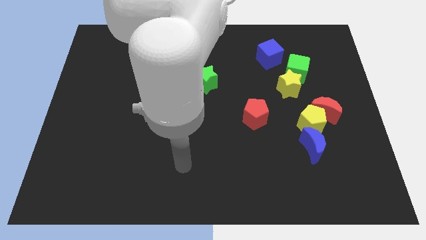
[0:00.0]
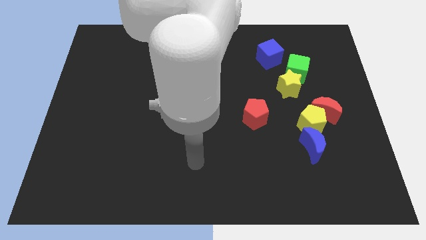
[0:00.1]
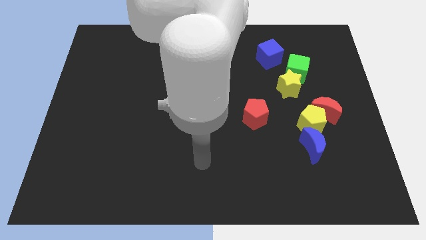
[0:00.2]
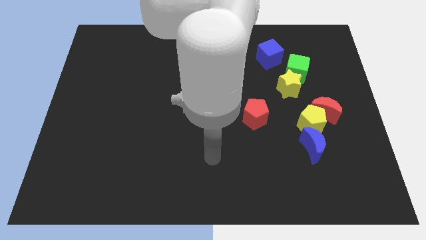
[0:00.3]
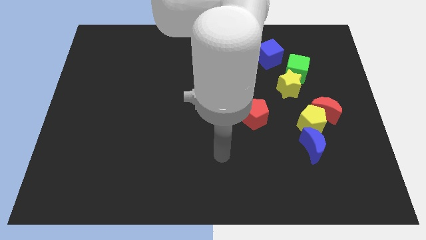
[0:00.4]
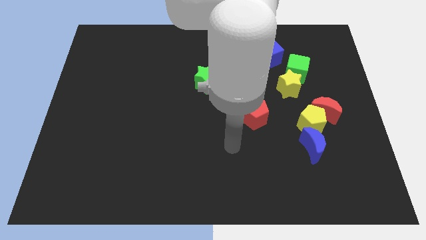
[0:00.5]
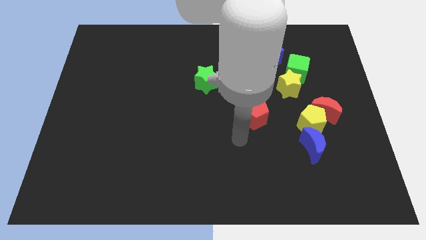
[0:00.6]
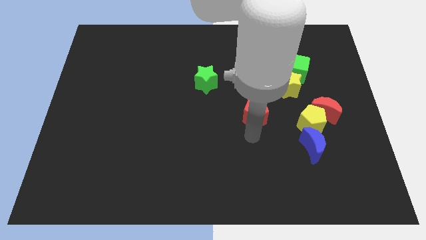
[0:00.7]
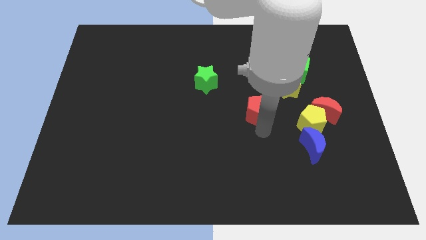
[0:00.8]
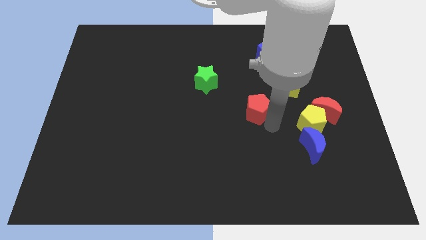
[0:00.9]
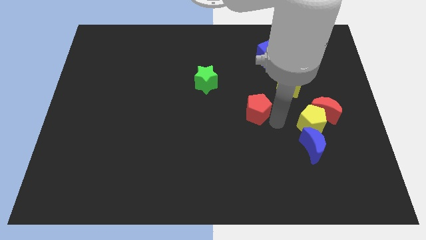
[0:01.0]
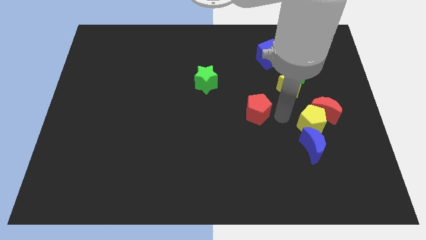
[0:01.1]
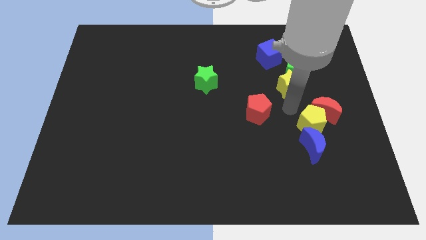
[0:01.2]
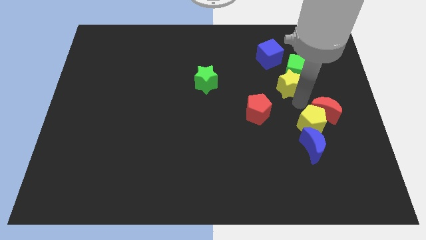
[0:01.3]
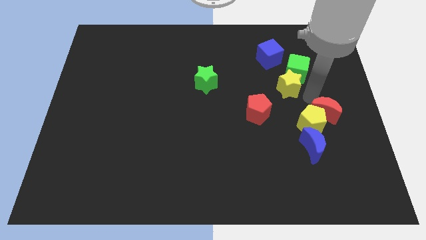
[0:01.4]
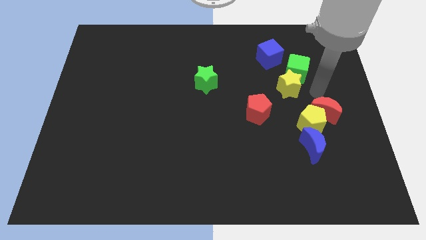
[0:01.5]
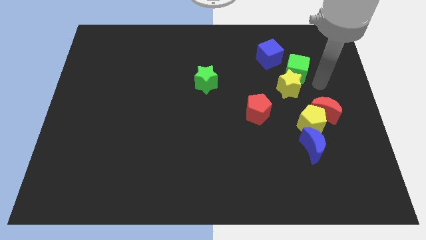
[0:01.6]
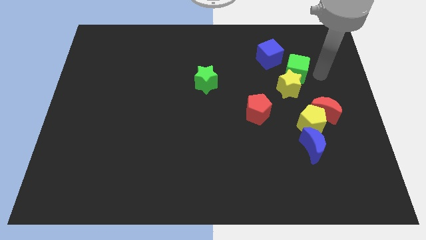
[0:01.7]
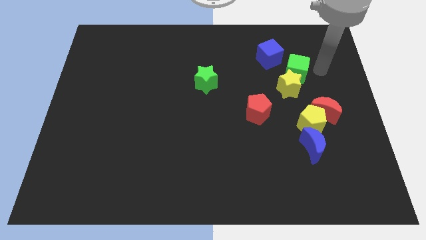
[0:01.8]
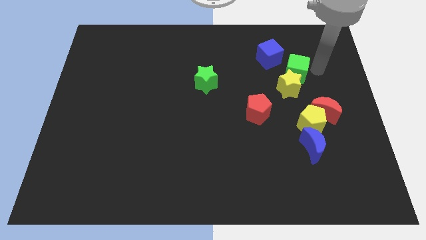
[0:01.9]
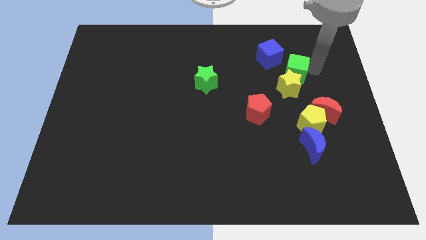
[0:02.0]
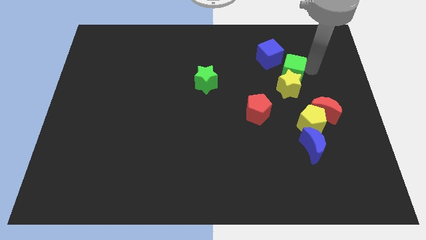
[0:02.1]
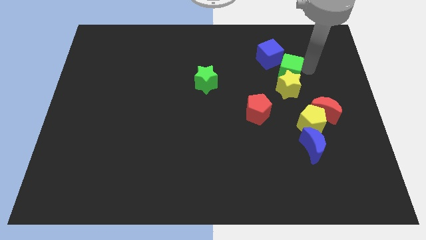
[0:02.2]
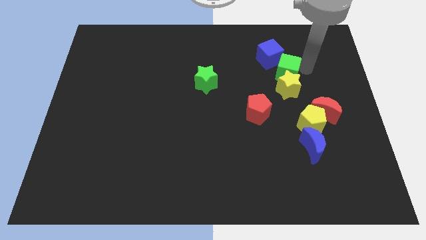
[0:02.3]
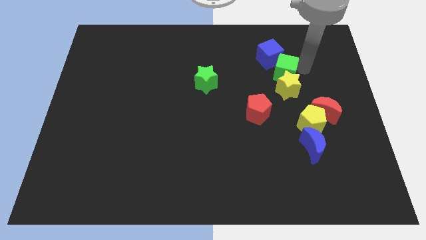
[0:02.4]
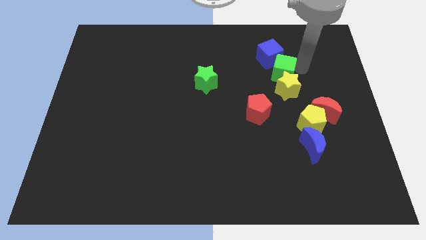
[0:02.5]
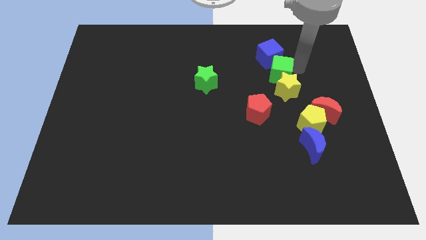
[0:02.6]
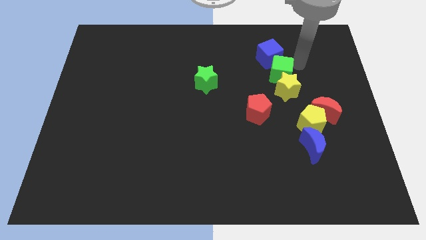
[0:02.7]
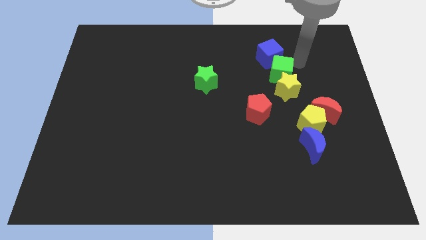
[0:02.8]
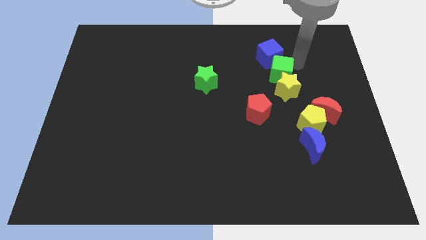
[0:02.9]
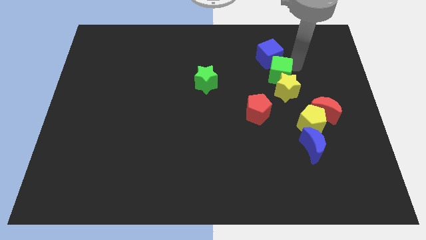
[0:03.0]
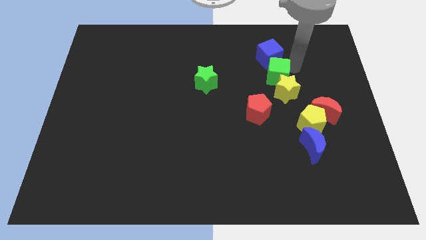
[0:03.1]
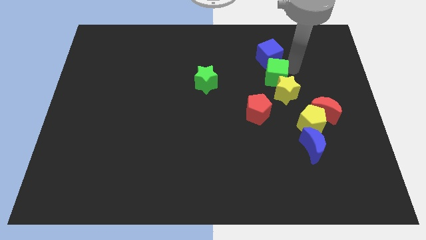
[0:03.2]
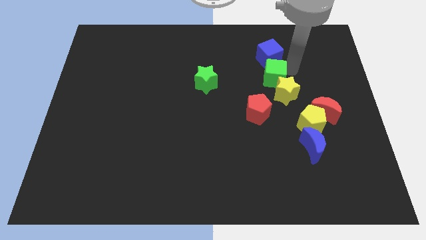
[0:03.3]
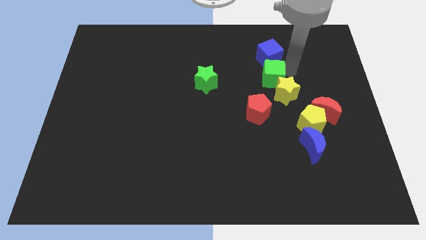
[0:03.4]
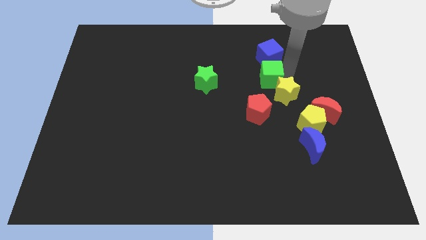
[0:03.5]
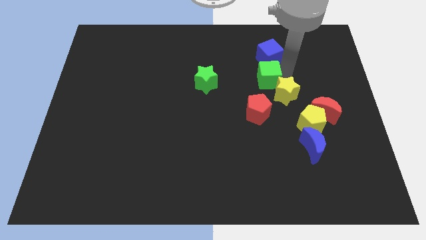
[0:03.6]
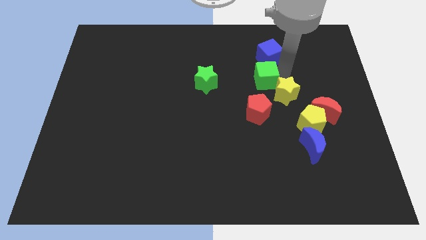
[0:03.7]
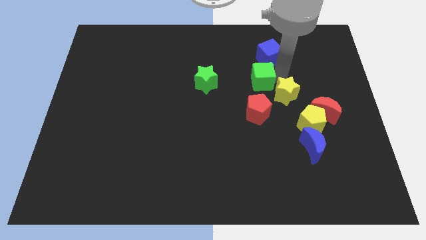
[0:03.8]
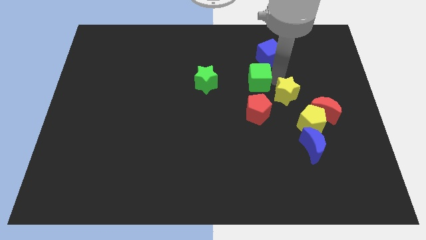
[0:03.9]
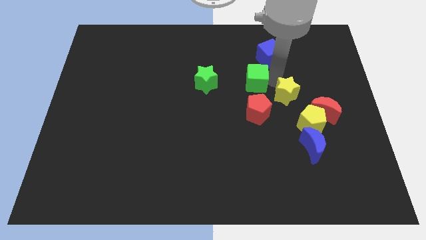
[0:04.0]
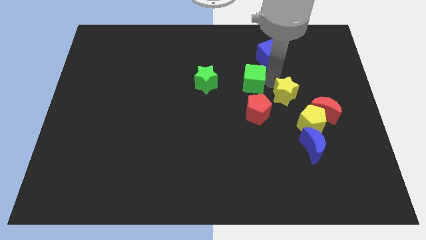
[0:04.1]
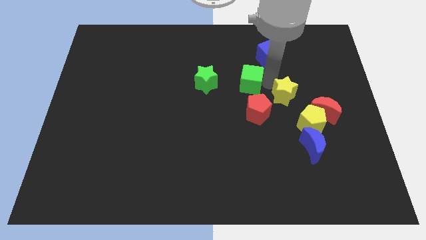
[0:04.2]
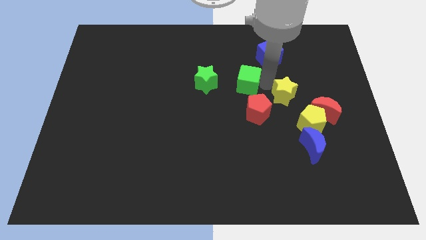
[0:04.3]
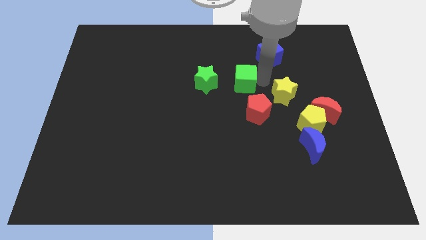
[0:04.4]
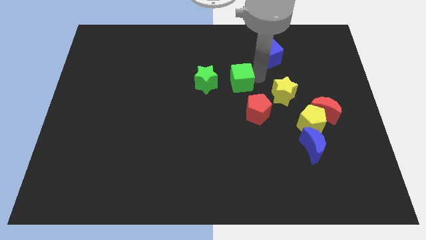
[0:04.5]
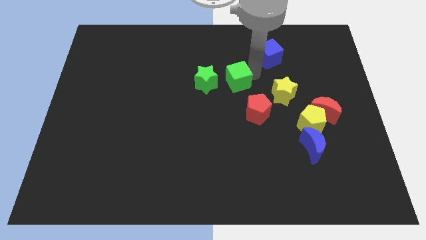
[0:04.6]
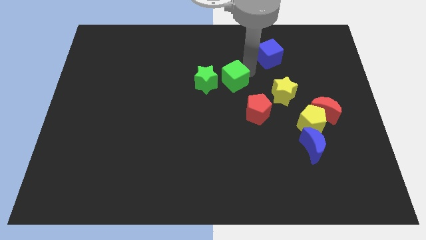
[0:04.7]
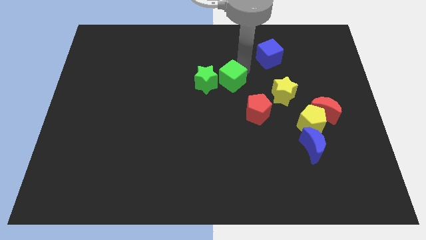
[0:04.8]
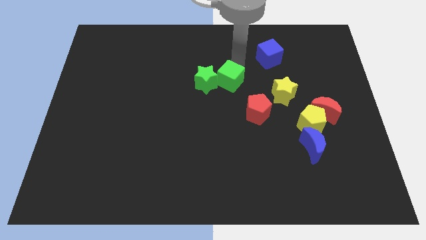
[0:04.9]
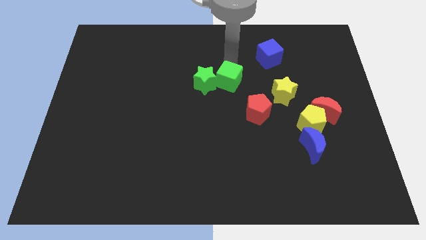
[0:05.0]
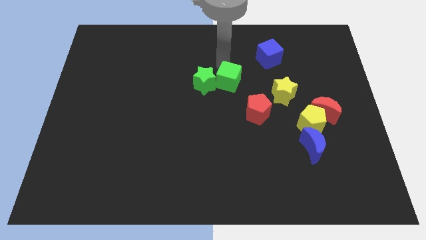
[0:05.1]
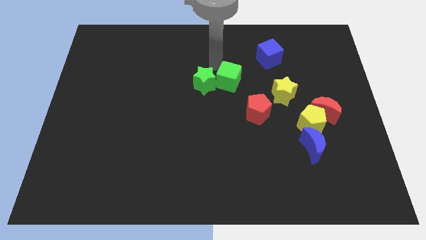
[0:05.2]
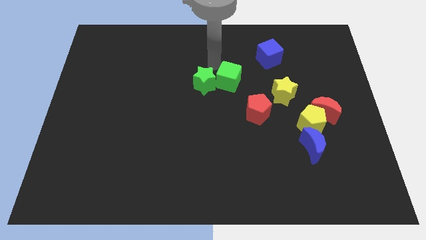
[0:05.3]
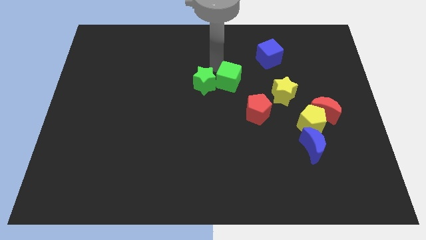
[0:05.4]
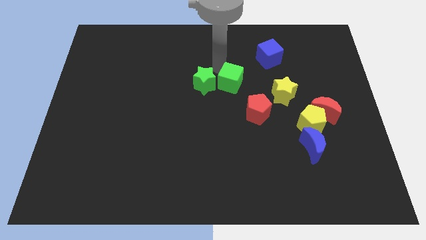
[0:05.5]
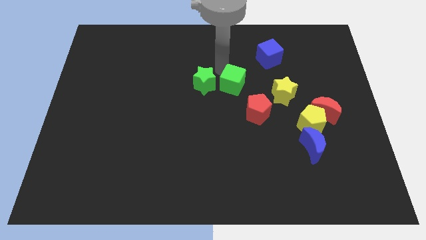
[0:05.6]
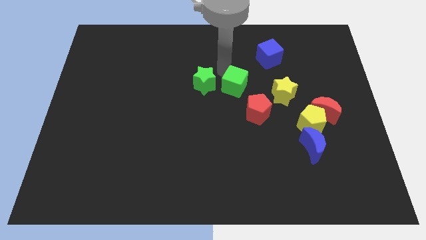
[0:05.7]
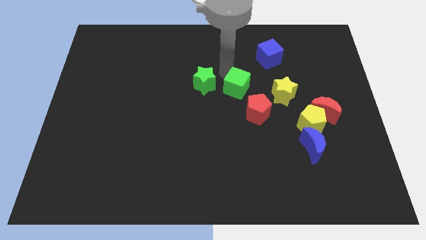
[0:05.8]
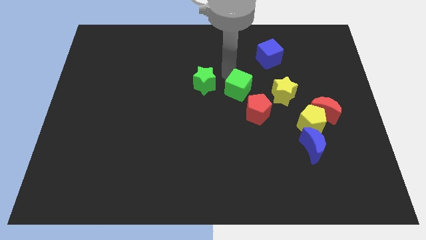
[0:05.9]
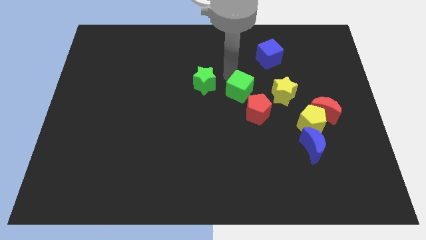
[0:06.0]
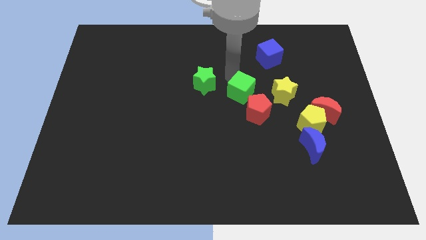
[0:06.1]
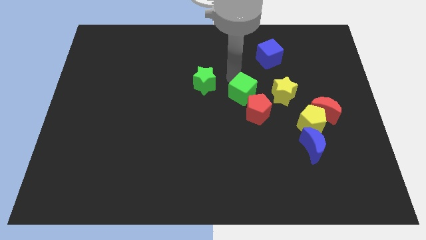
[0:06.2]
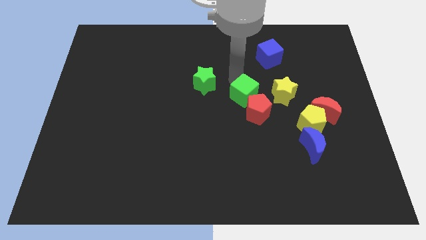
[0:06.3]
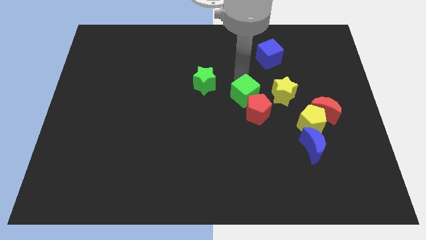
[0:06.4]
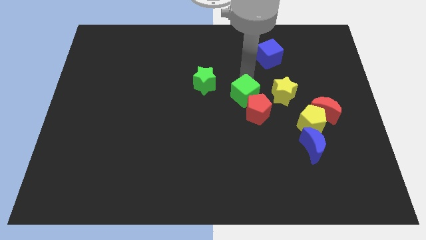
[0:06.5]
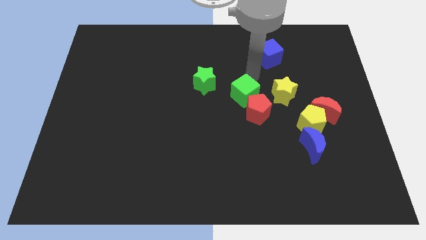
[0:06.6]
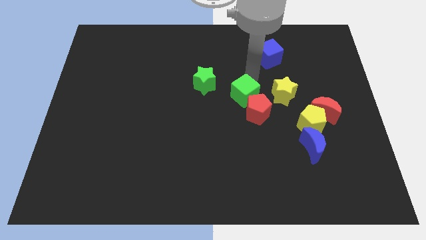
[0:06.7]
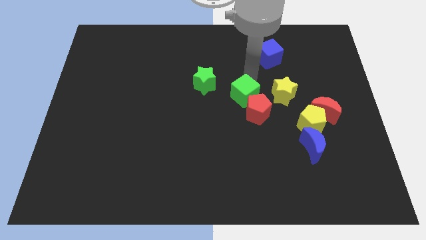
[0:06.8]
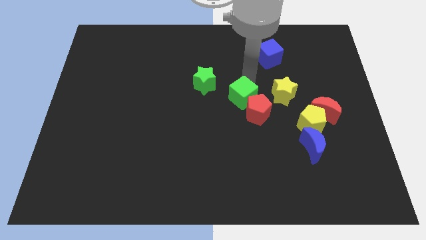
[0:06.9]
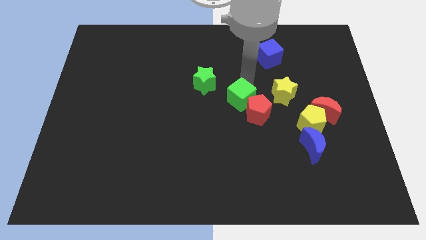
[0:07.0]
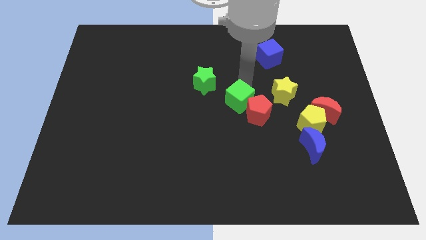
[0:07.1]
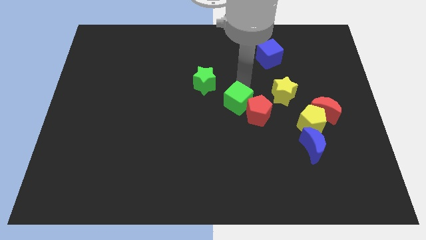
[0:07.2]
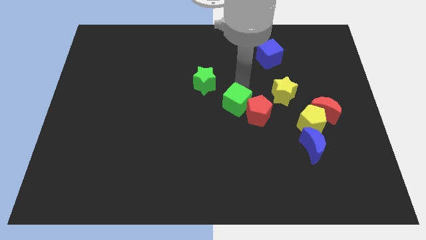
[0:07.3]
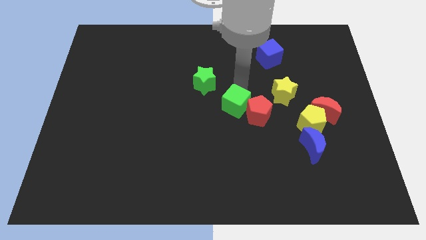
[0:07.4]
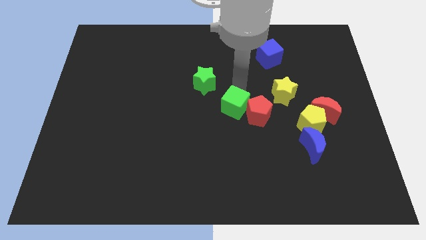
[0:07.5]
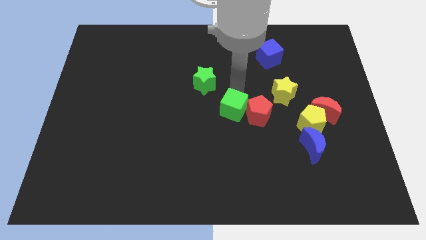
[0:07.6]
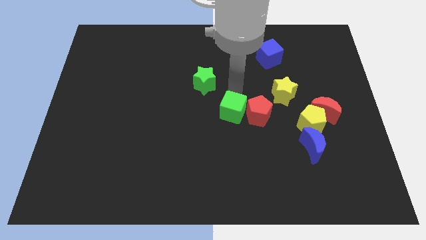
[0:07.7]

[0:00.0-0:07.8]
slide the green cube downwards and then left

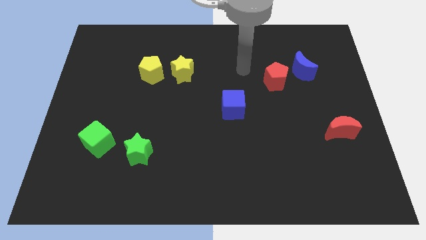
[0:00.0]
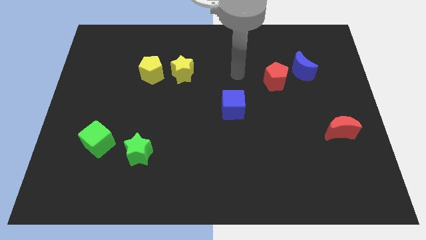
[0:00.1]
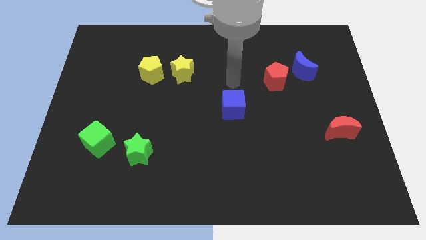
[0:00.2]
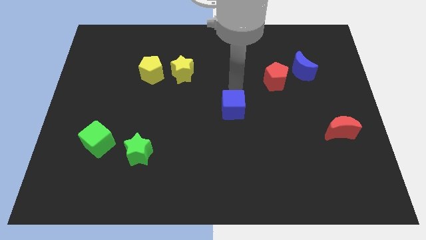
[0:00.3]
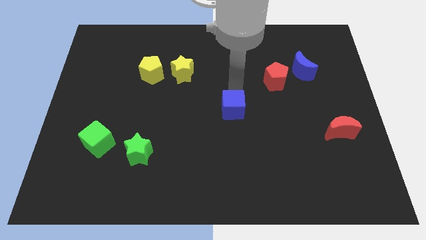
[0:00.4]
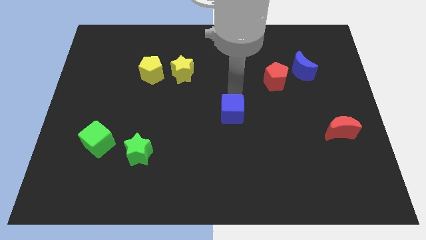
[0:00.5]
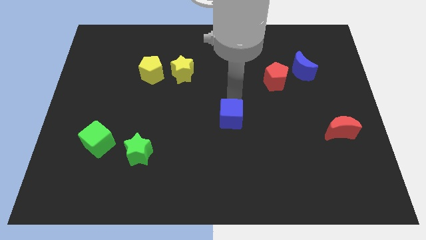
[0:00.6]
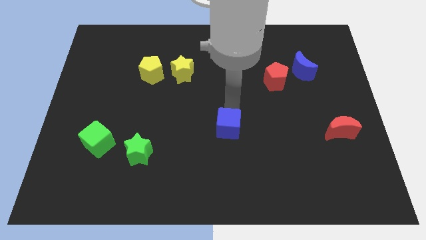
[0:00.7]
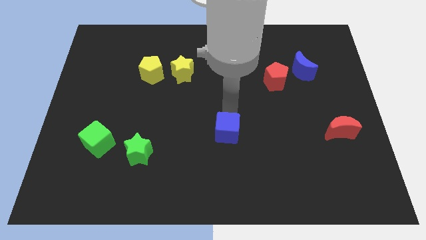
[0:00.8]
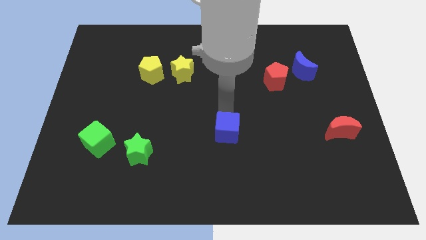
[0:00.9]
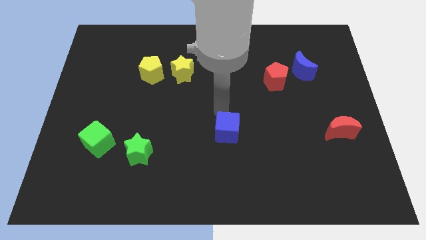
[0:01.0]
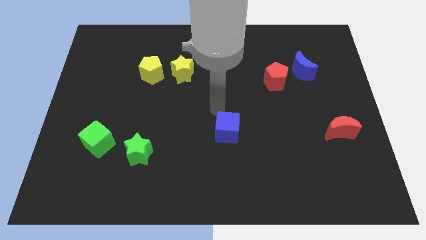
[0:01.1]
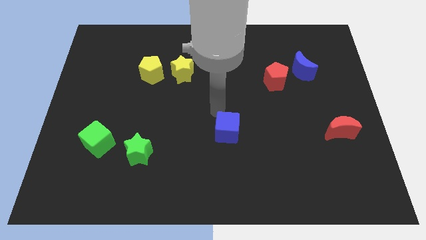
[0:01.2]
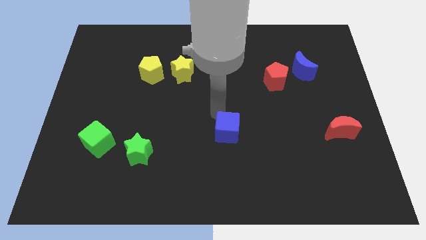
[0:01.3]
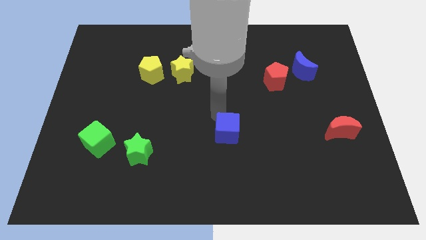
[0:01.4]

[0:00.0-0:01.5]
slightly push the blue cube down
